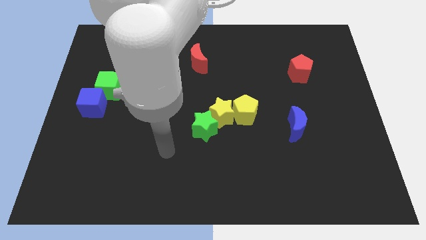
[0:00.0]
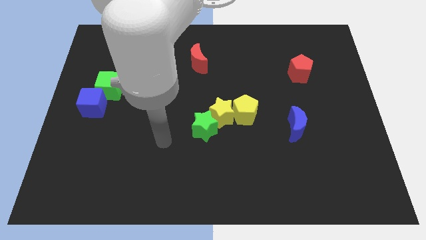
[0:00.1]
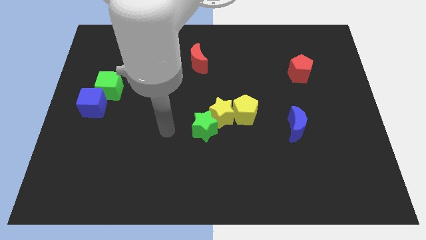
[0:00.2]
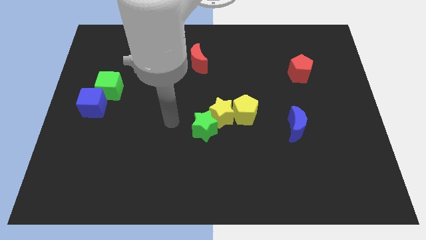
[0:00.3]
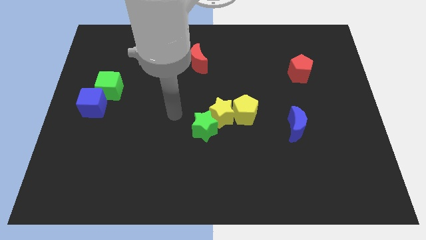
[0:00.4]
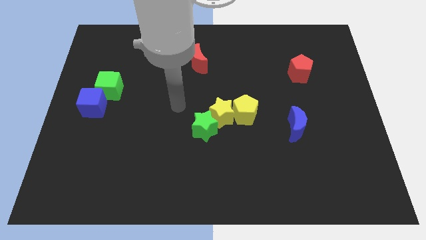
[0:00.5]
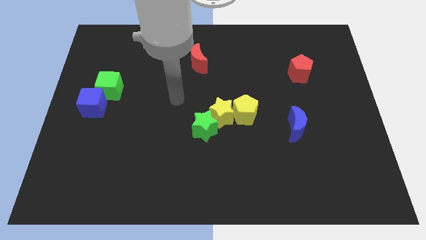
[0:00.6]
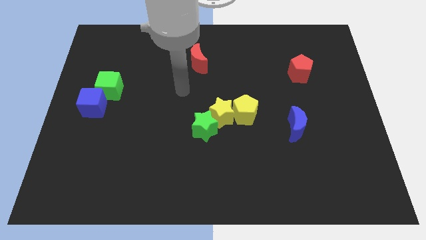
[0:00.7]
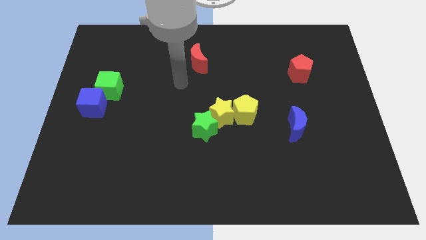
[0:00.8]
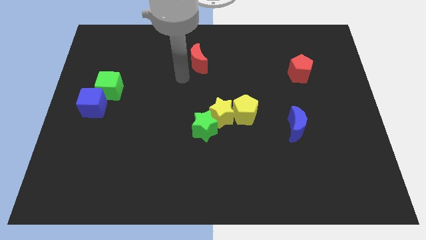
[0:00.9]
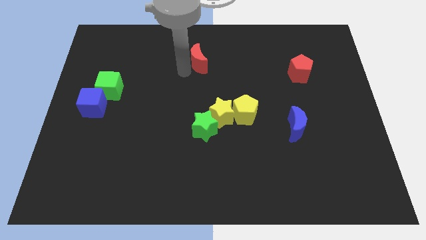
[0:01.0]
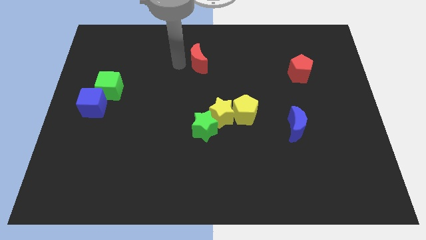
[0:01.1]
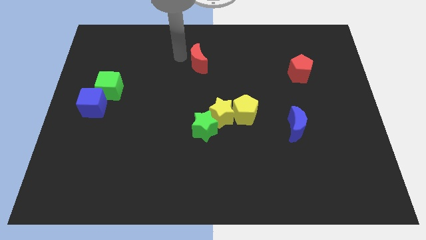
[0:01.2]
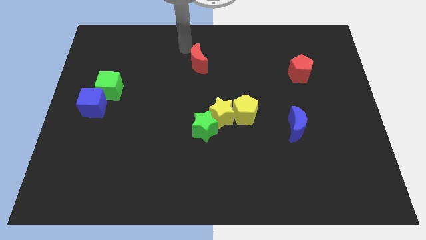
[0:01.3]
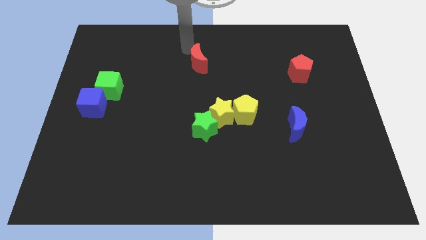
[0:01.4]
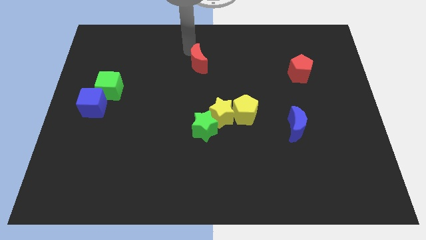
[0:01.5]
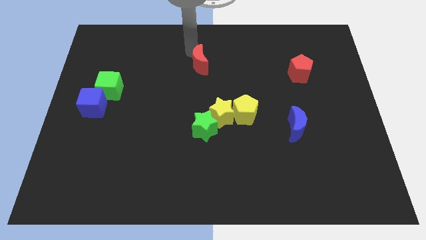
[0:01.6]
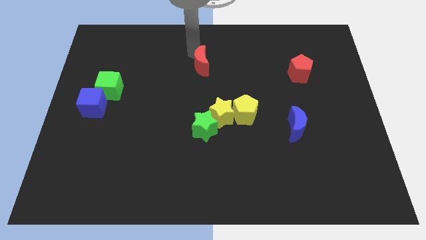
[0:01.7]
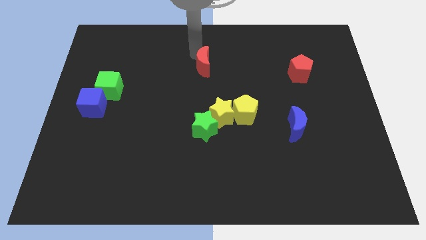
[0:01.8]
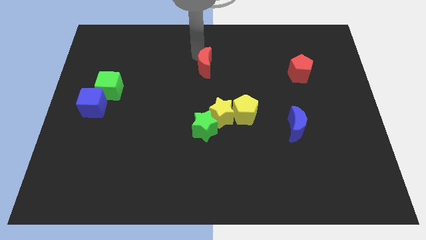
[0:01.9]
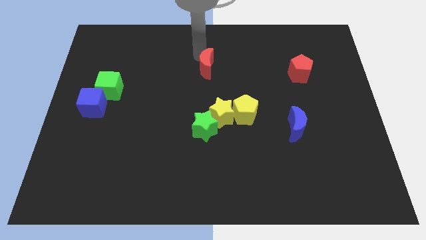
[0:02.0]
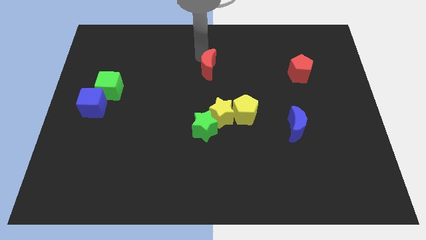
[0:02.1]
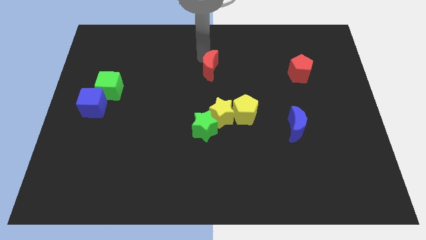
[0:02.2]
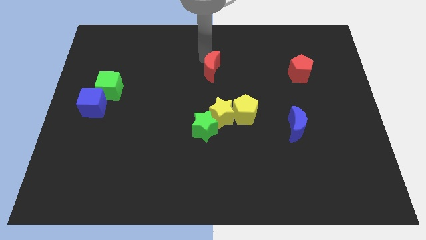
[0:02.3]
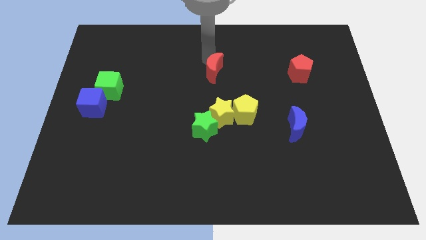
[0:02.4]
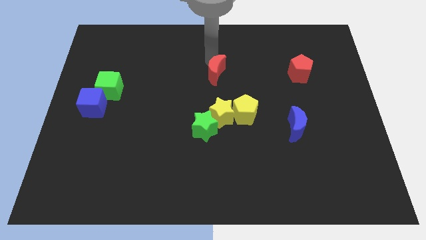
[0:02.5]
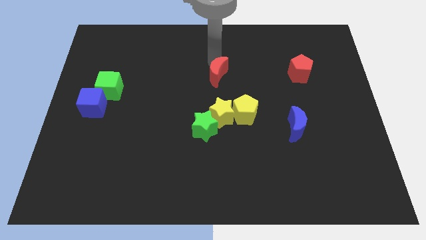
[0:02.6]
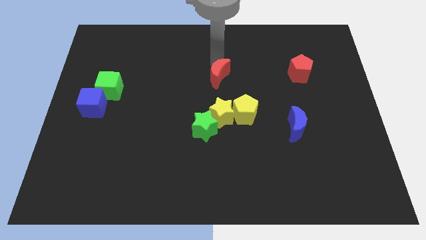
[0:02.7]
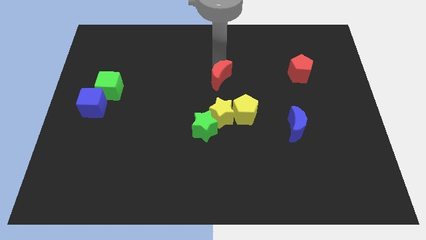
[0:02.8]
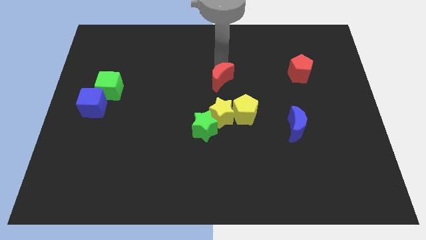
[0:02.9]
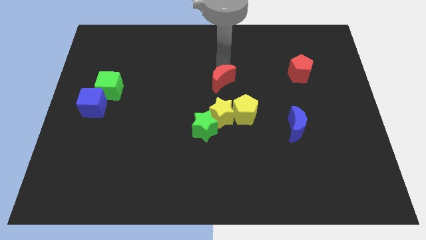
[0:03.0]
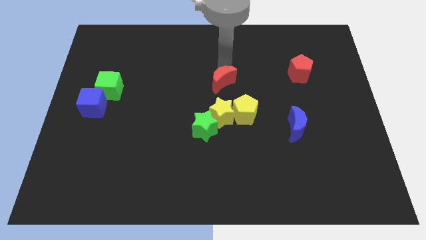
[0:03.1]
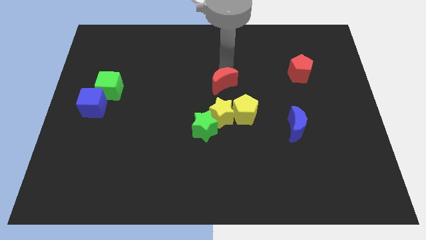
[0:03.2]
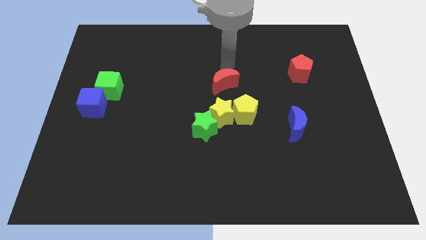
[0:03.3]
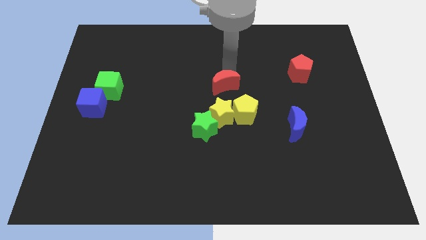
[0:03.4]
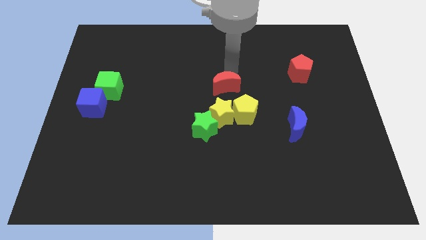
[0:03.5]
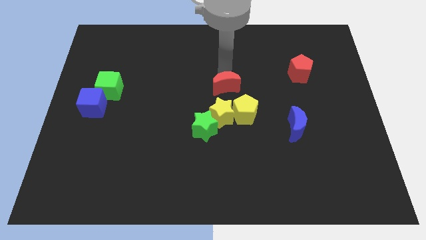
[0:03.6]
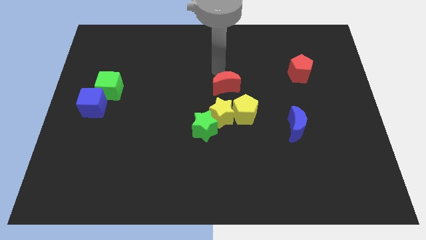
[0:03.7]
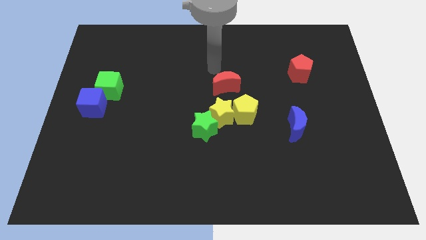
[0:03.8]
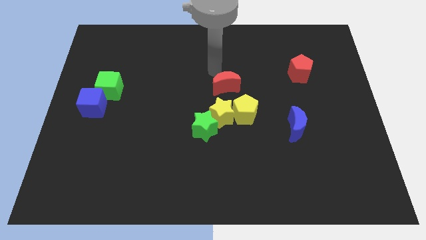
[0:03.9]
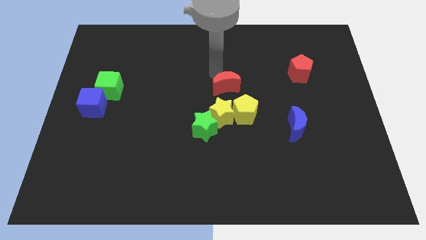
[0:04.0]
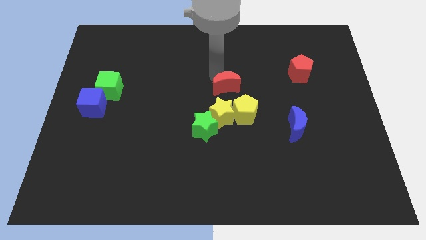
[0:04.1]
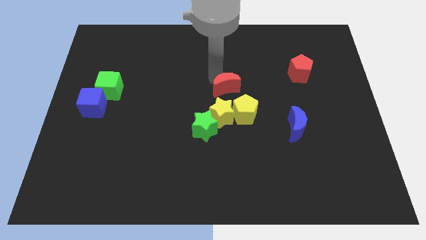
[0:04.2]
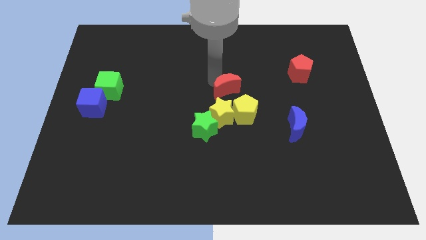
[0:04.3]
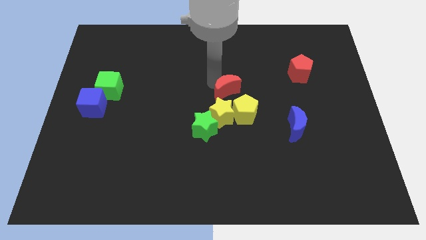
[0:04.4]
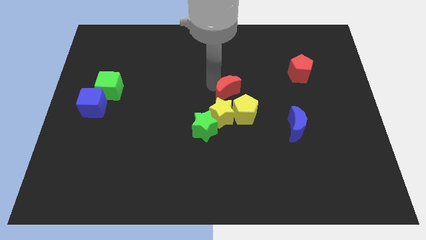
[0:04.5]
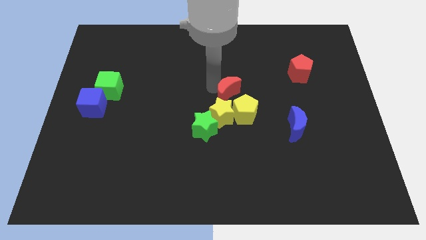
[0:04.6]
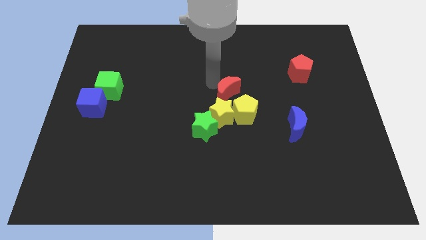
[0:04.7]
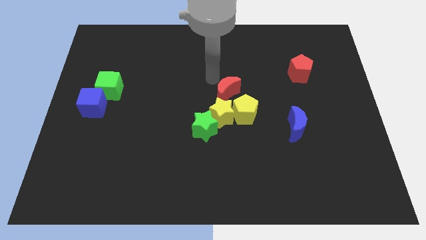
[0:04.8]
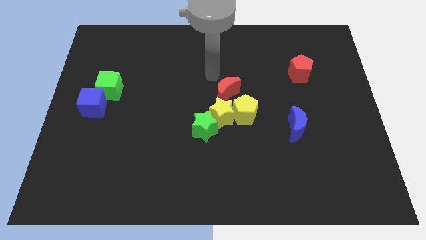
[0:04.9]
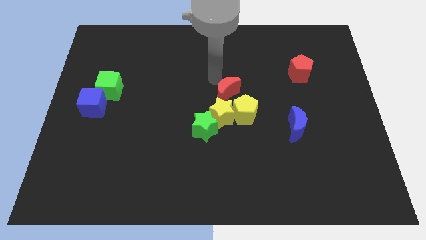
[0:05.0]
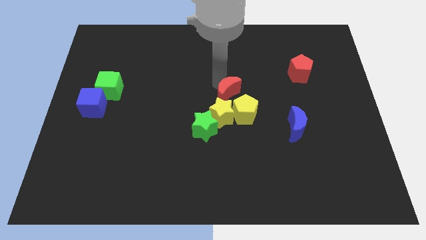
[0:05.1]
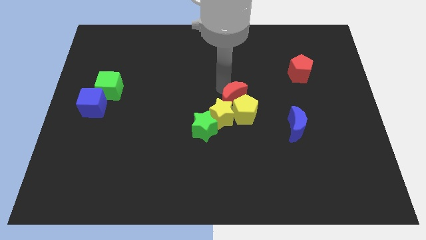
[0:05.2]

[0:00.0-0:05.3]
move the red moon to the yellow pentagon

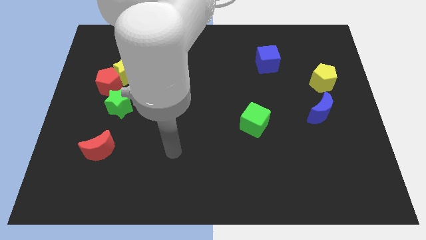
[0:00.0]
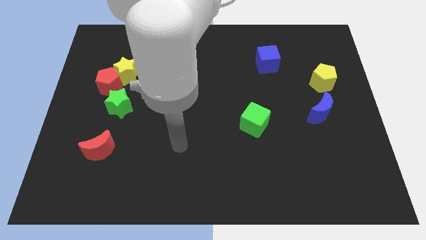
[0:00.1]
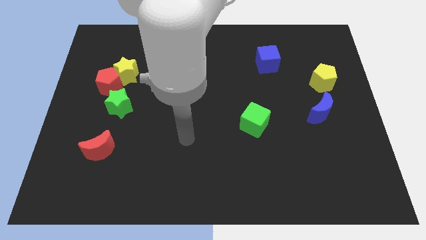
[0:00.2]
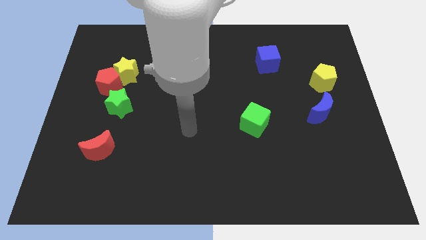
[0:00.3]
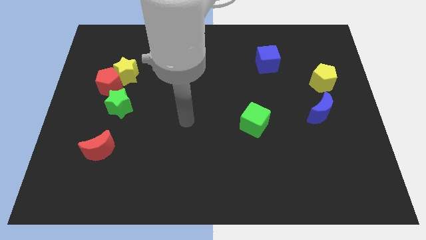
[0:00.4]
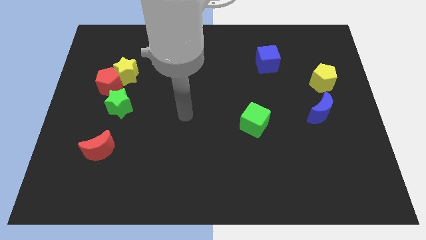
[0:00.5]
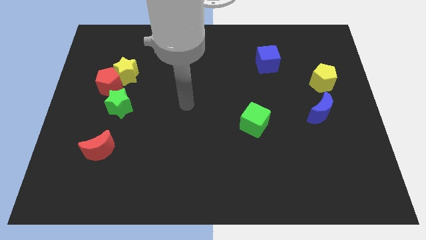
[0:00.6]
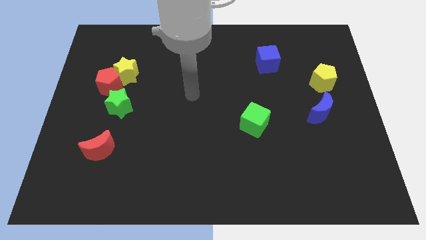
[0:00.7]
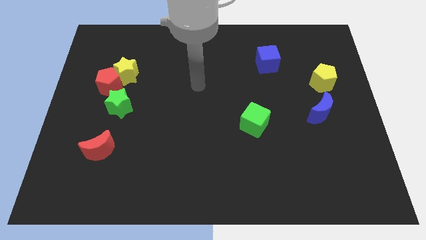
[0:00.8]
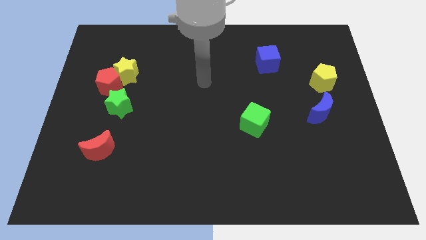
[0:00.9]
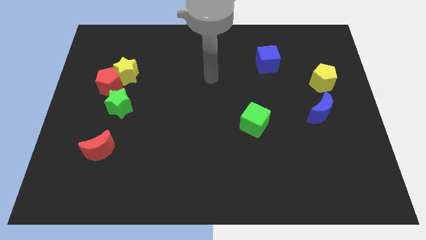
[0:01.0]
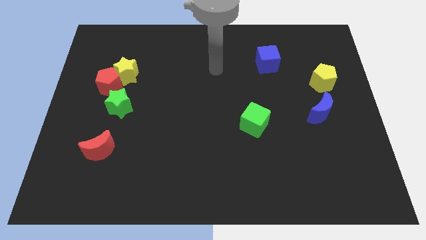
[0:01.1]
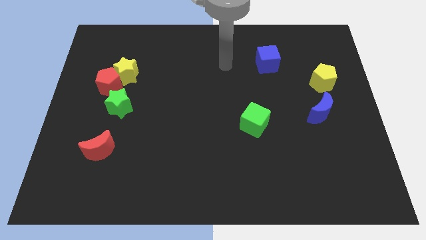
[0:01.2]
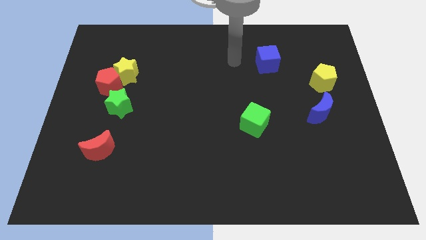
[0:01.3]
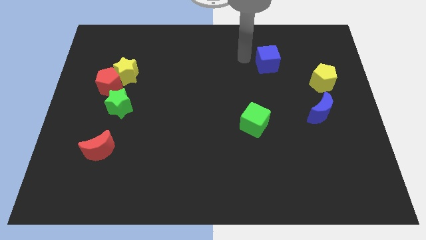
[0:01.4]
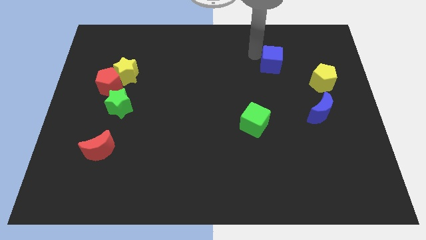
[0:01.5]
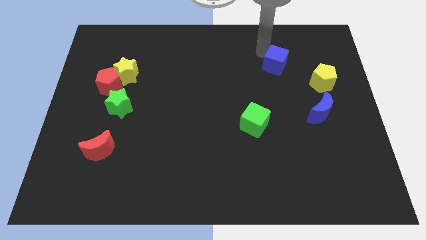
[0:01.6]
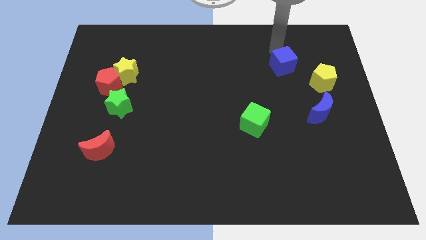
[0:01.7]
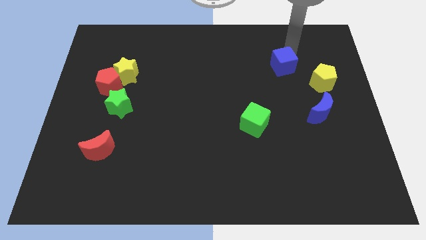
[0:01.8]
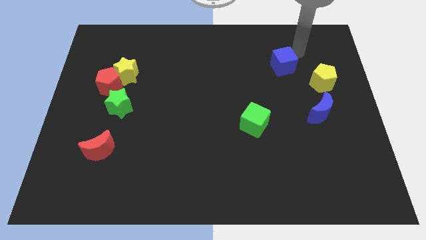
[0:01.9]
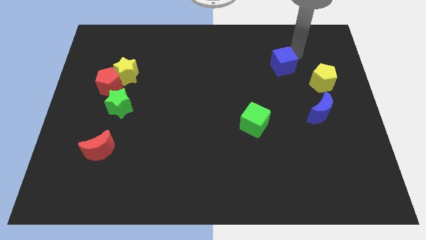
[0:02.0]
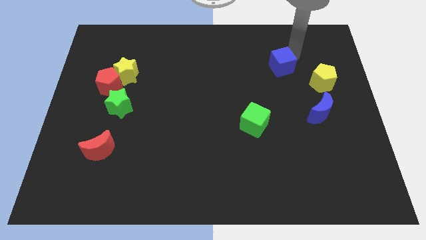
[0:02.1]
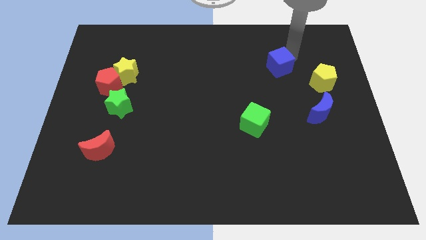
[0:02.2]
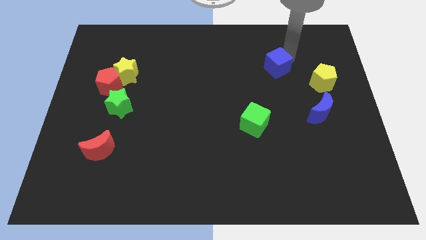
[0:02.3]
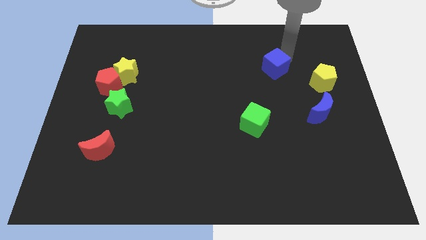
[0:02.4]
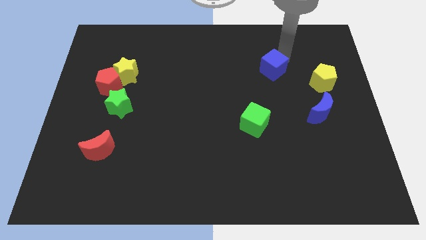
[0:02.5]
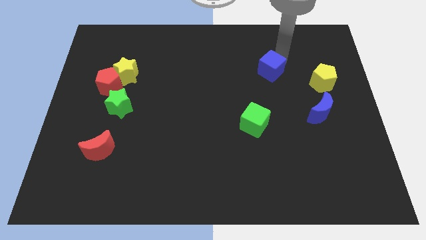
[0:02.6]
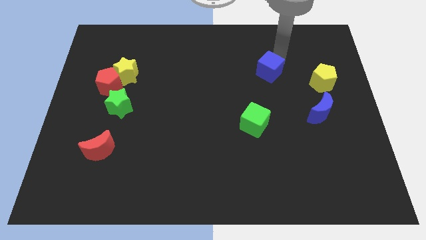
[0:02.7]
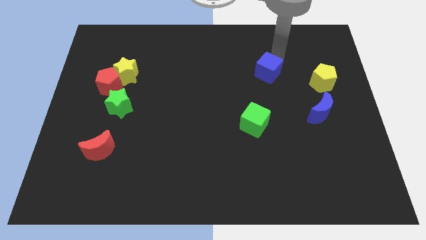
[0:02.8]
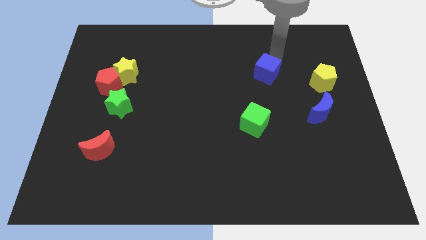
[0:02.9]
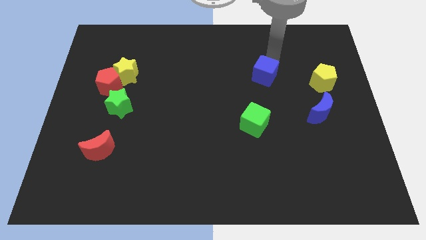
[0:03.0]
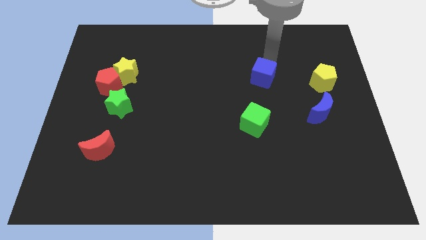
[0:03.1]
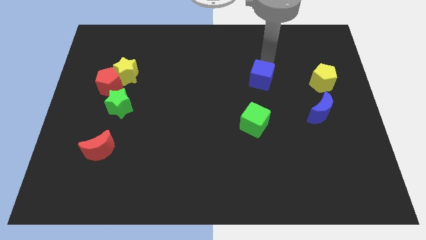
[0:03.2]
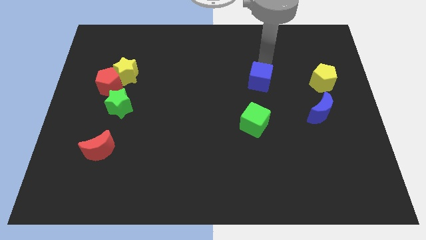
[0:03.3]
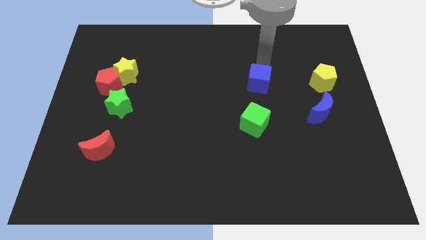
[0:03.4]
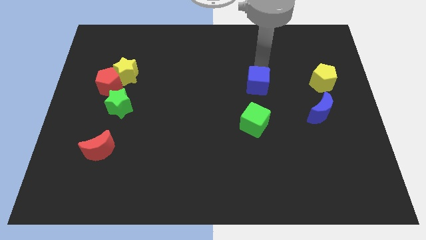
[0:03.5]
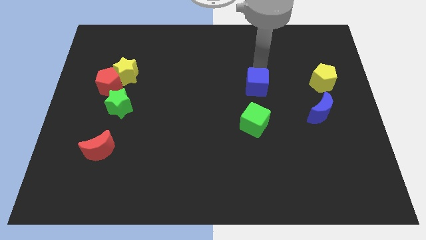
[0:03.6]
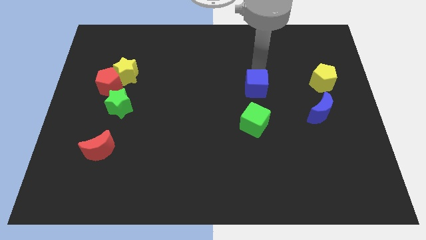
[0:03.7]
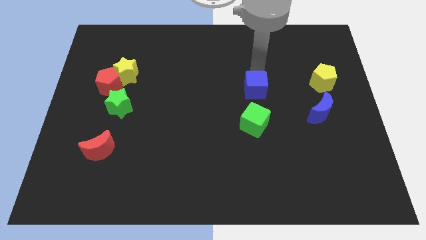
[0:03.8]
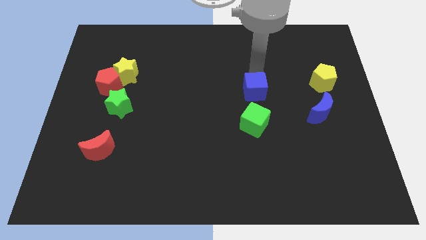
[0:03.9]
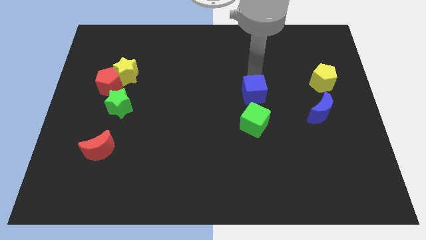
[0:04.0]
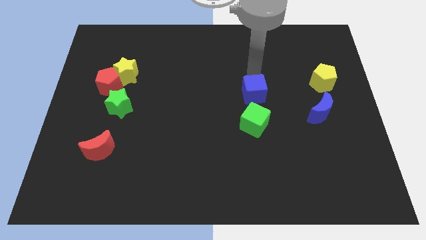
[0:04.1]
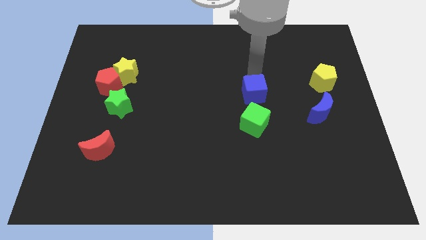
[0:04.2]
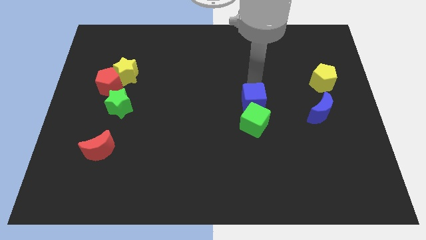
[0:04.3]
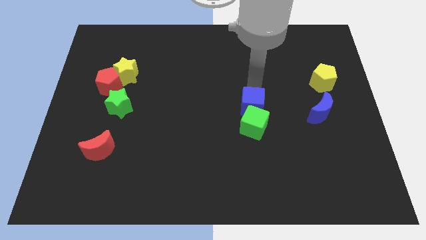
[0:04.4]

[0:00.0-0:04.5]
push the blue cube to the green cube
